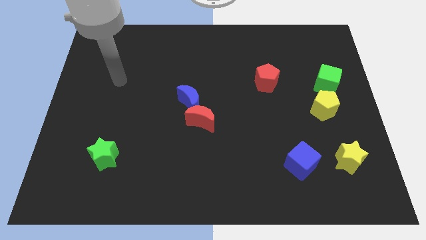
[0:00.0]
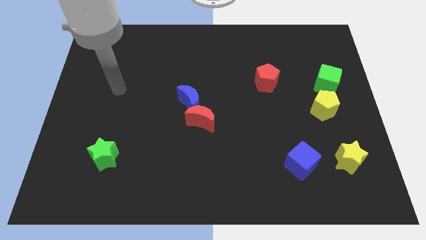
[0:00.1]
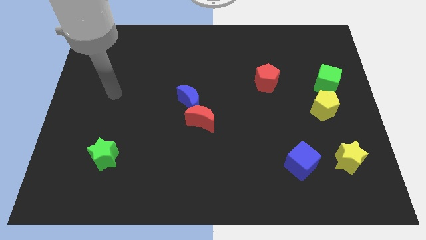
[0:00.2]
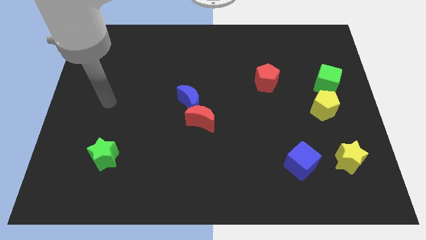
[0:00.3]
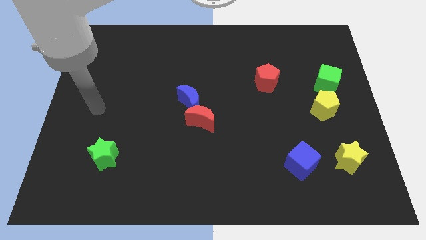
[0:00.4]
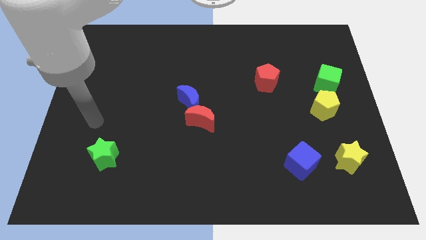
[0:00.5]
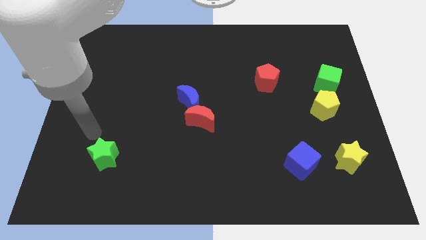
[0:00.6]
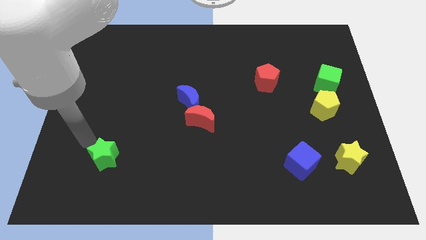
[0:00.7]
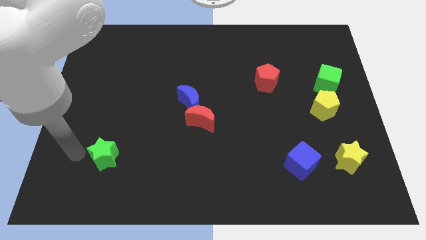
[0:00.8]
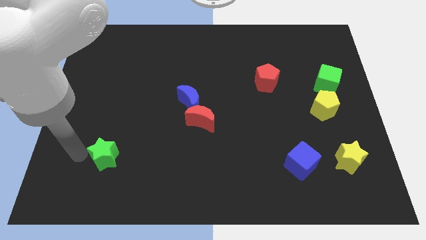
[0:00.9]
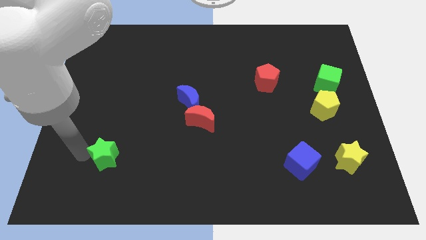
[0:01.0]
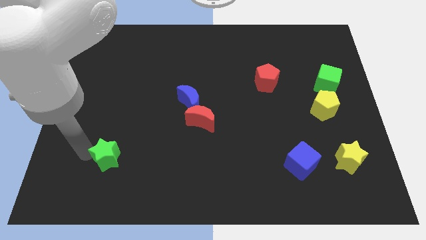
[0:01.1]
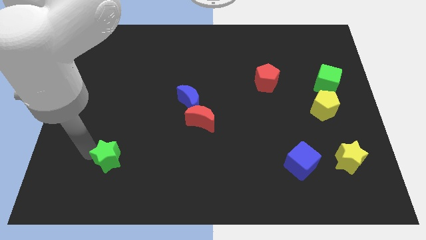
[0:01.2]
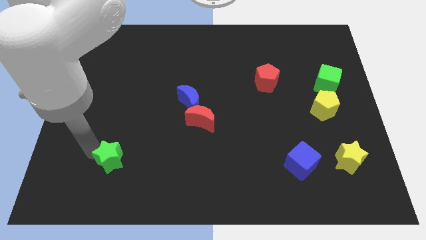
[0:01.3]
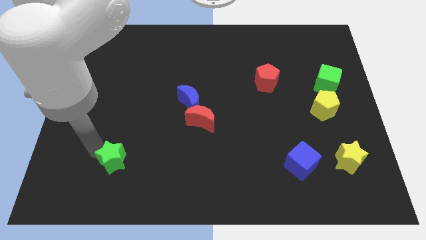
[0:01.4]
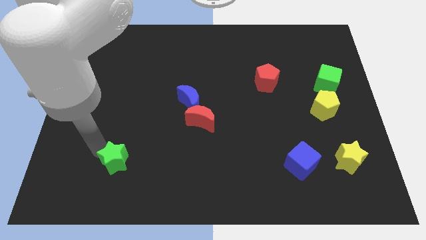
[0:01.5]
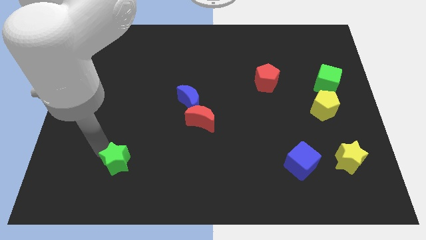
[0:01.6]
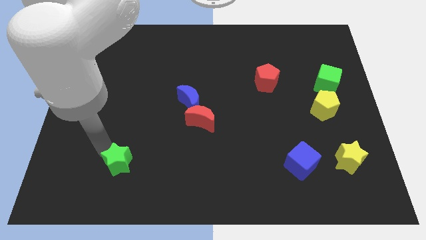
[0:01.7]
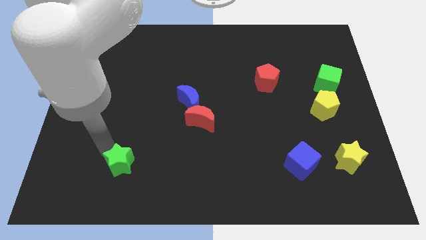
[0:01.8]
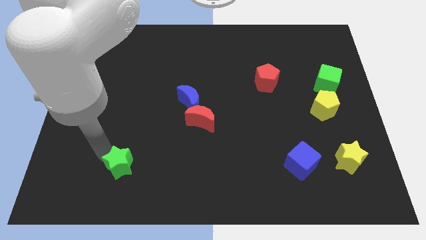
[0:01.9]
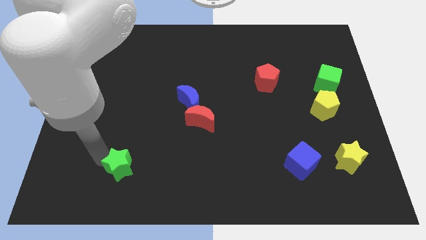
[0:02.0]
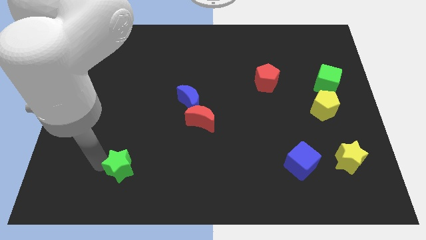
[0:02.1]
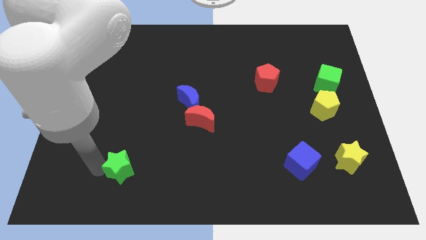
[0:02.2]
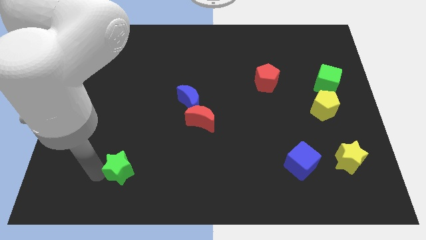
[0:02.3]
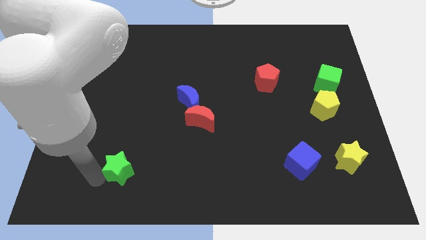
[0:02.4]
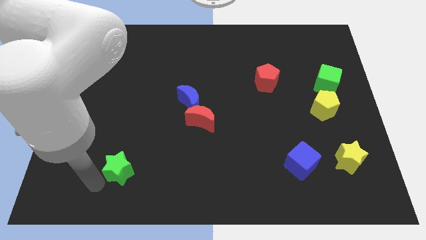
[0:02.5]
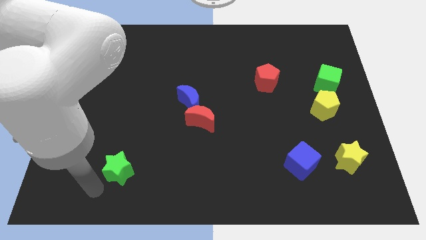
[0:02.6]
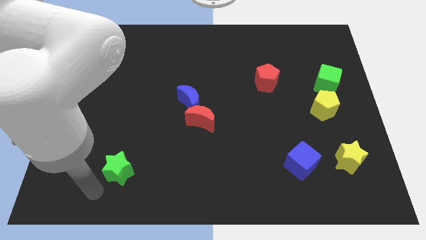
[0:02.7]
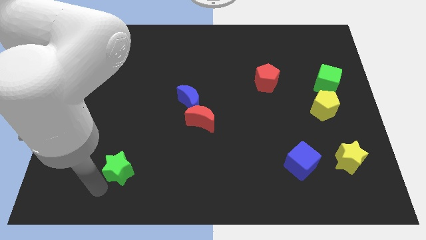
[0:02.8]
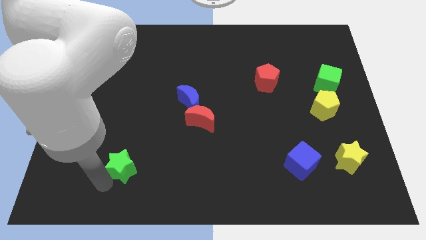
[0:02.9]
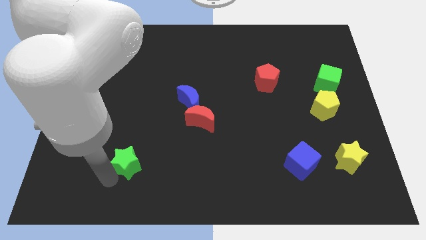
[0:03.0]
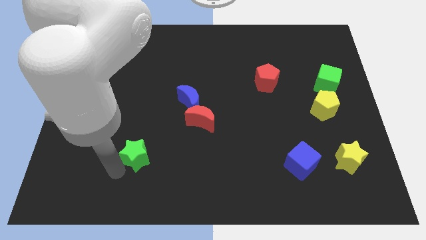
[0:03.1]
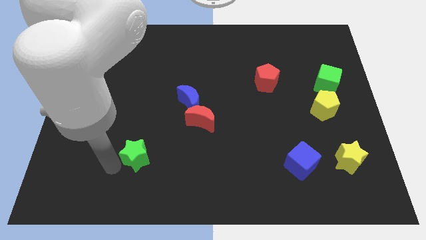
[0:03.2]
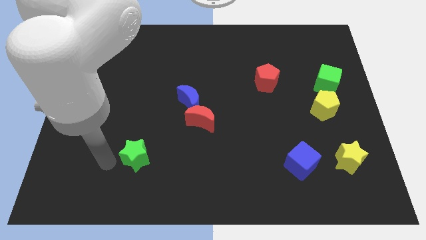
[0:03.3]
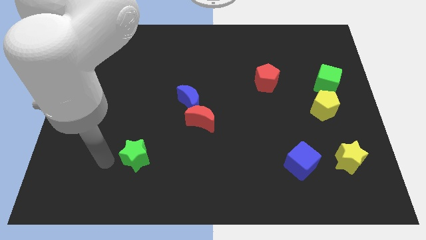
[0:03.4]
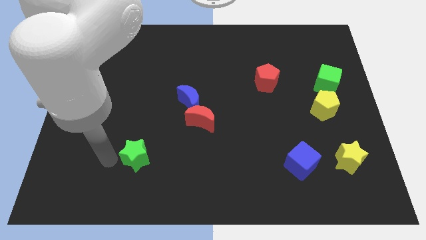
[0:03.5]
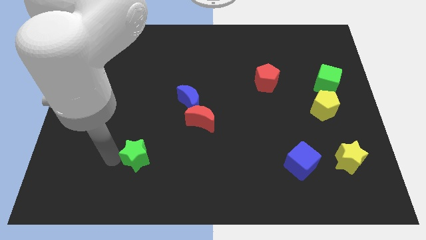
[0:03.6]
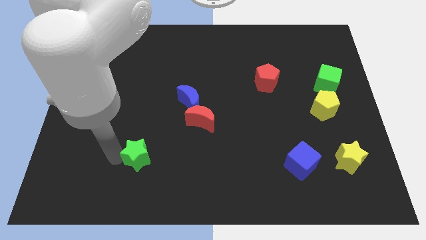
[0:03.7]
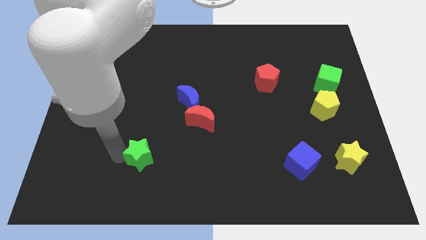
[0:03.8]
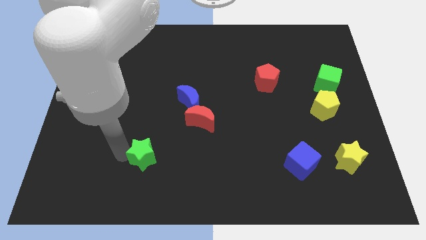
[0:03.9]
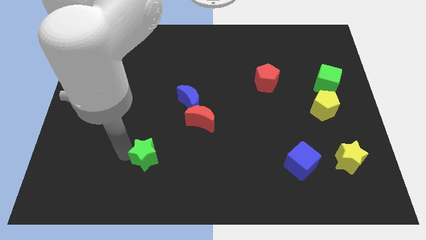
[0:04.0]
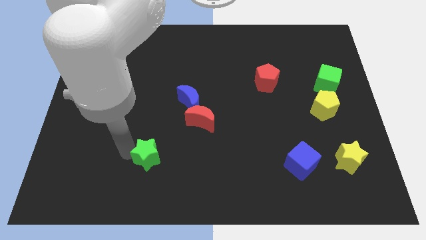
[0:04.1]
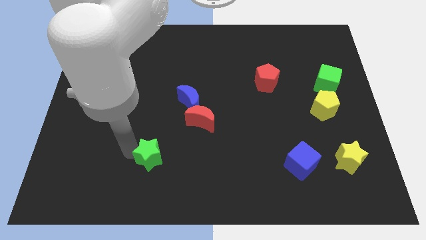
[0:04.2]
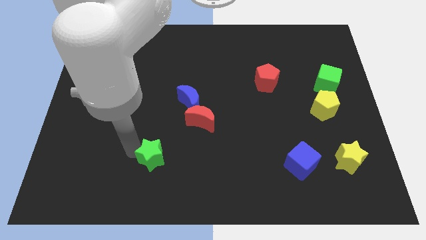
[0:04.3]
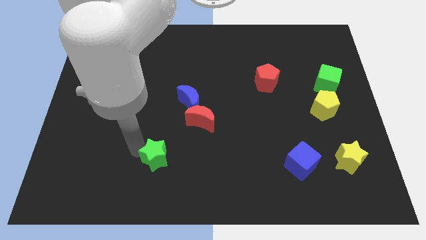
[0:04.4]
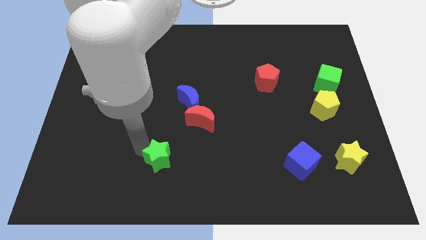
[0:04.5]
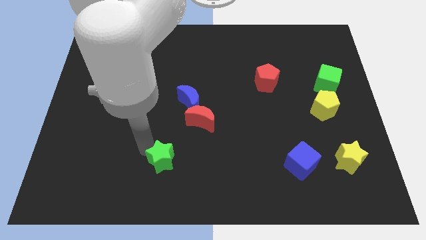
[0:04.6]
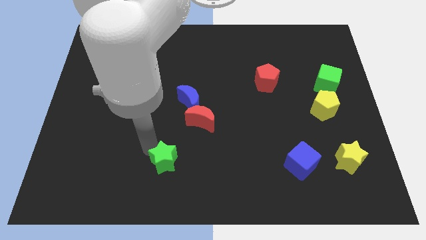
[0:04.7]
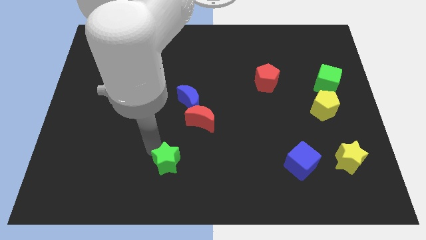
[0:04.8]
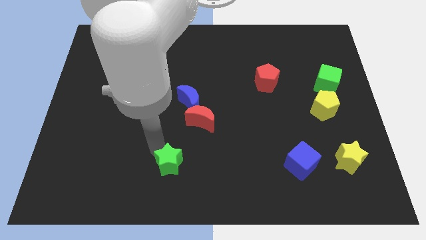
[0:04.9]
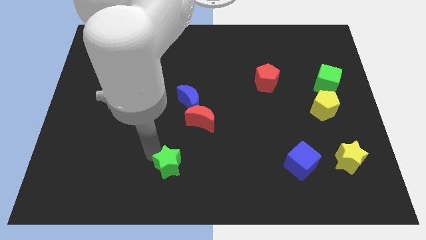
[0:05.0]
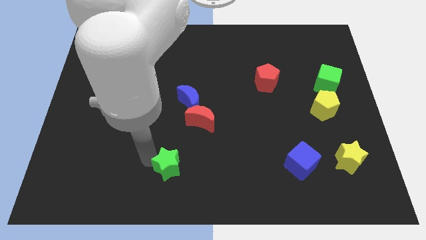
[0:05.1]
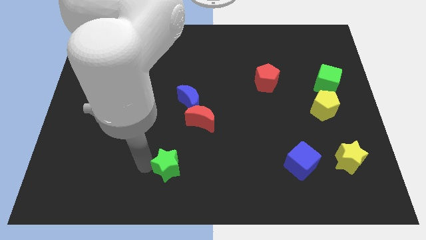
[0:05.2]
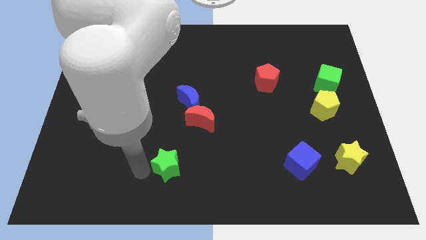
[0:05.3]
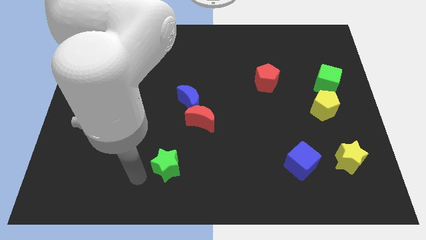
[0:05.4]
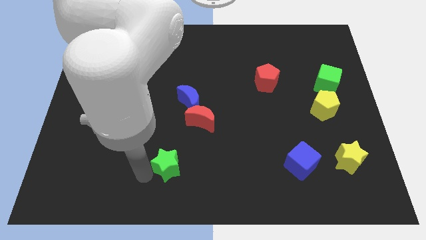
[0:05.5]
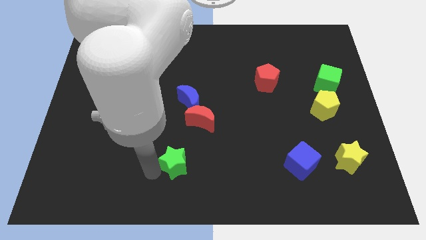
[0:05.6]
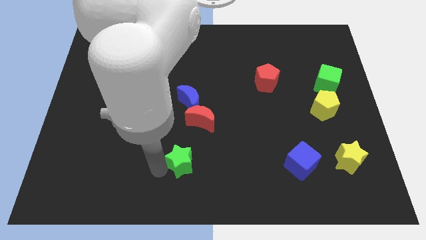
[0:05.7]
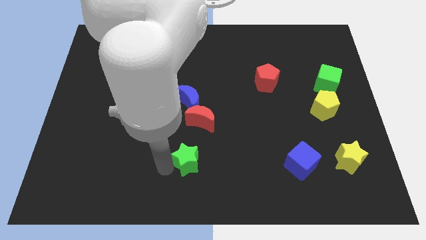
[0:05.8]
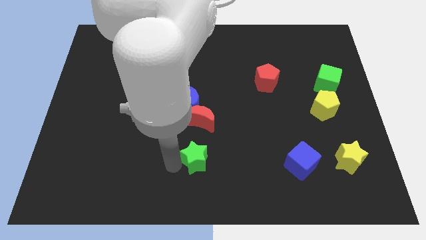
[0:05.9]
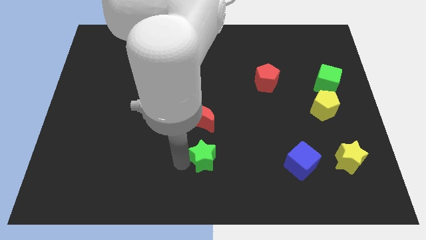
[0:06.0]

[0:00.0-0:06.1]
push the green star right

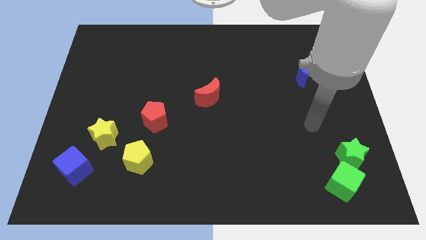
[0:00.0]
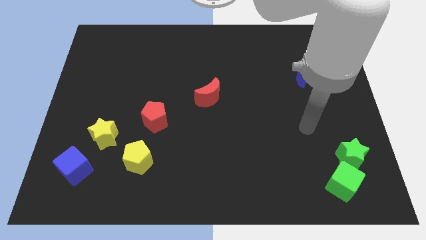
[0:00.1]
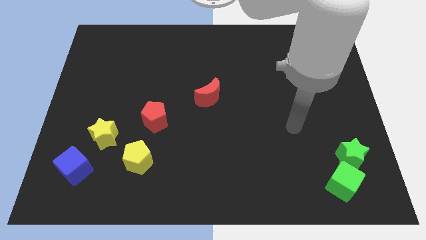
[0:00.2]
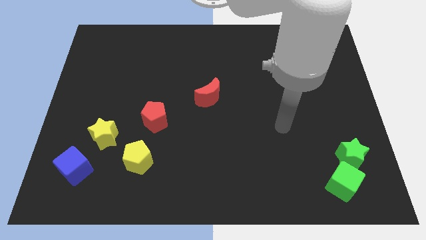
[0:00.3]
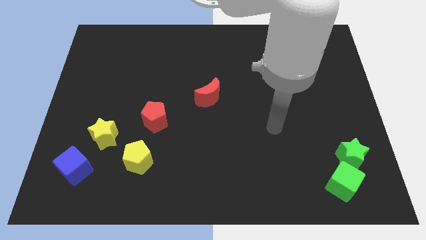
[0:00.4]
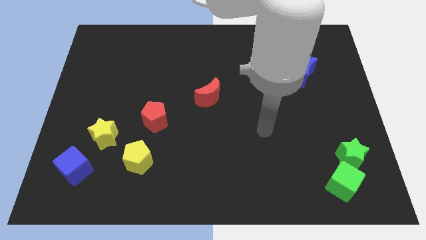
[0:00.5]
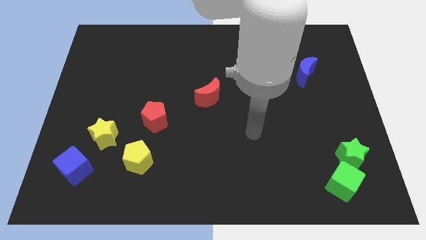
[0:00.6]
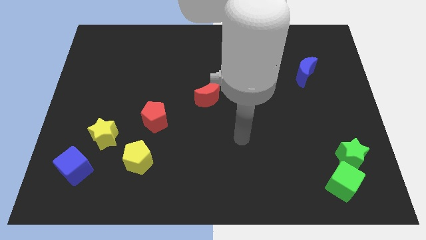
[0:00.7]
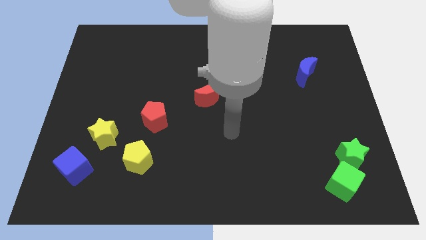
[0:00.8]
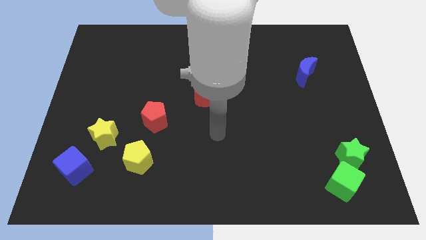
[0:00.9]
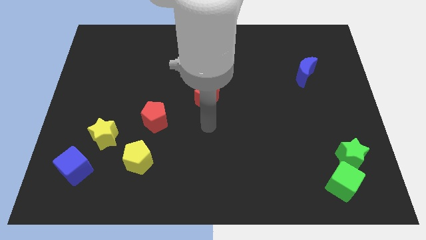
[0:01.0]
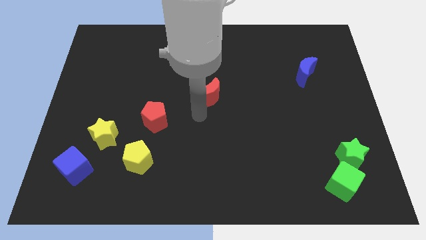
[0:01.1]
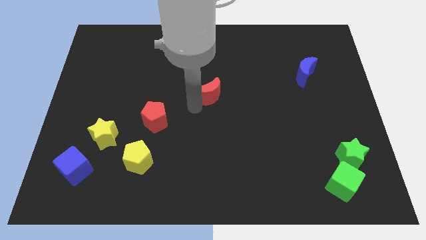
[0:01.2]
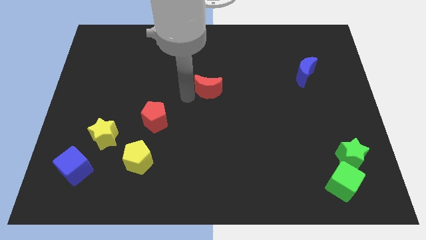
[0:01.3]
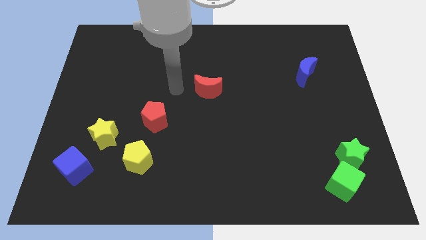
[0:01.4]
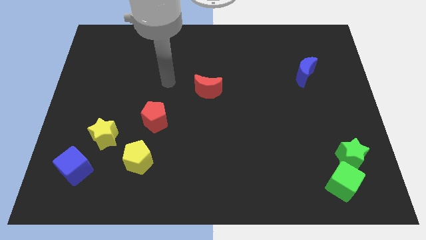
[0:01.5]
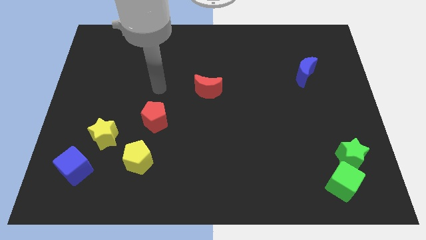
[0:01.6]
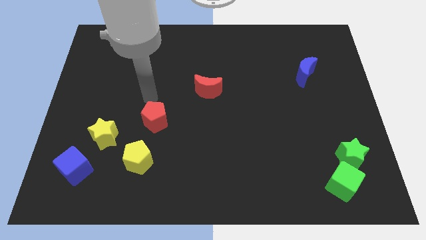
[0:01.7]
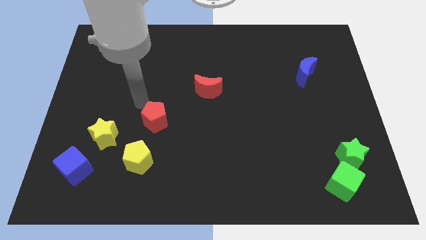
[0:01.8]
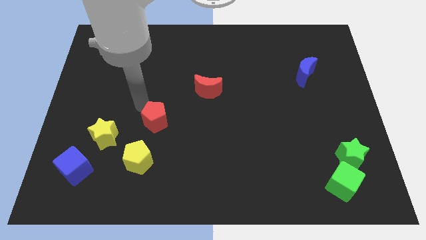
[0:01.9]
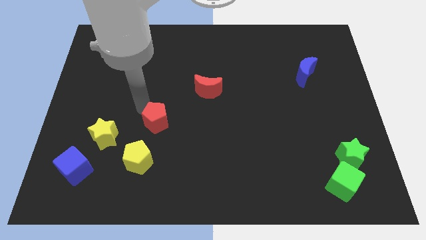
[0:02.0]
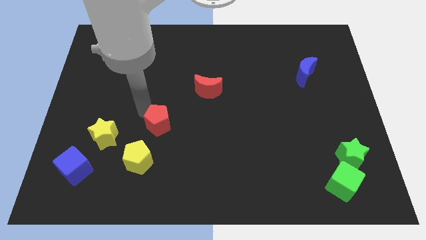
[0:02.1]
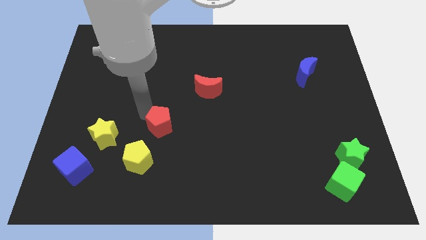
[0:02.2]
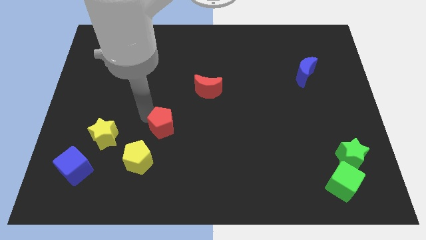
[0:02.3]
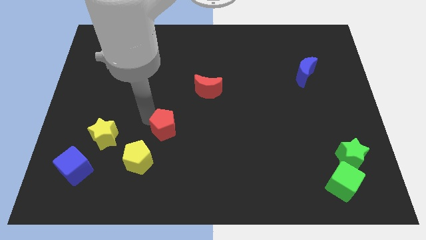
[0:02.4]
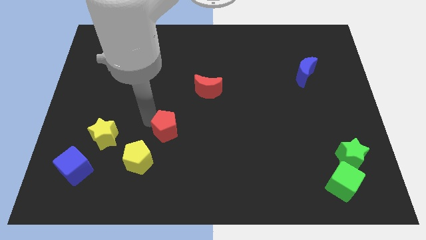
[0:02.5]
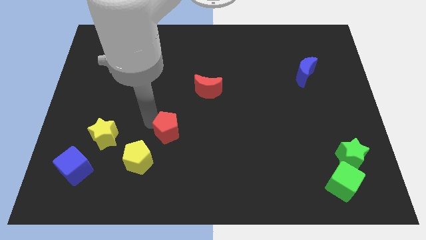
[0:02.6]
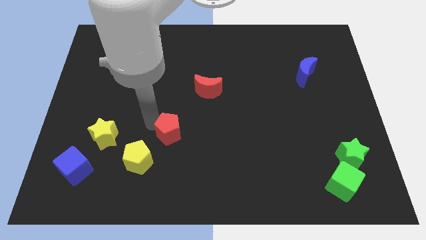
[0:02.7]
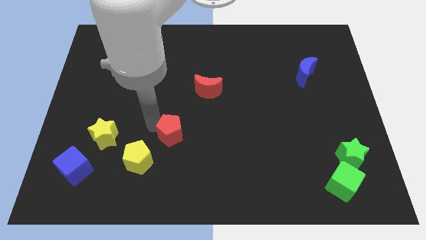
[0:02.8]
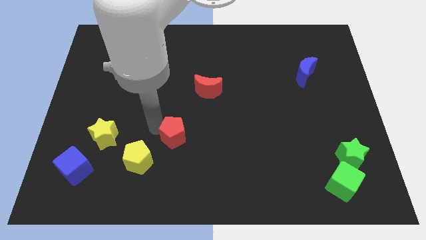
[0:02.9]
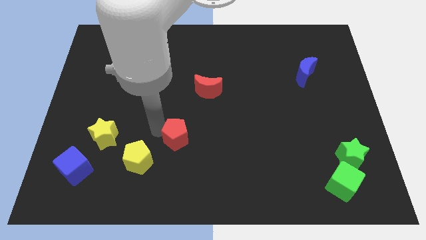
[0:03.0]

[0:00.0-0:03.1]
push the red pentagon a bit diagonally down and right
